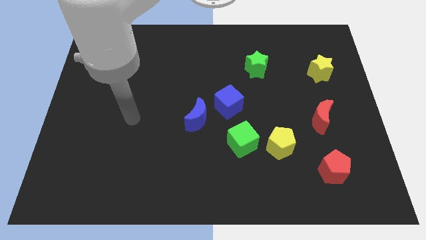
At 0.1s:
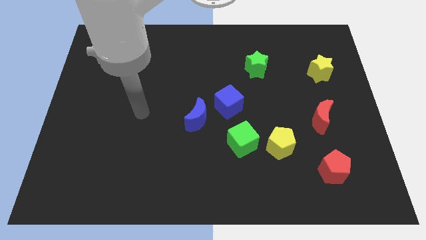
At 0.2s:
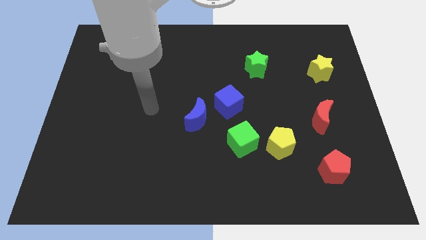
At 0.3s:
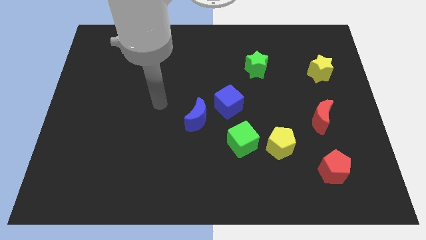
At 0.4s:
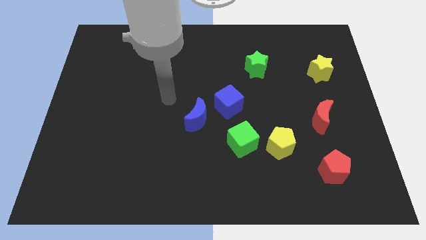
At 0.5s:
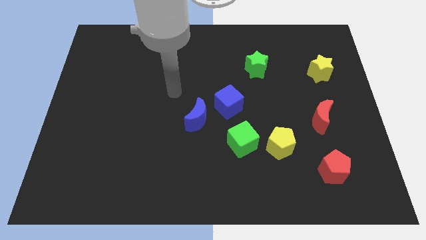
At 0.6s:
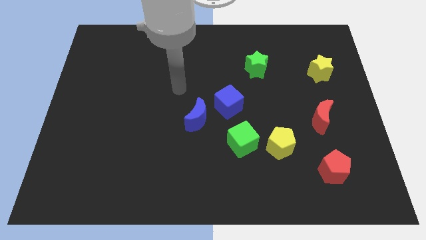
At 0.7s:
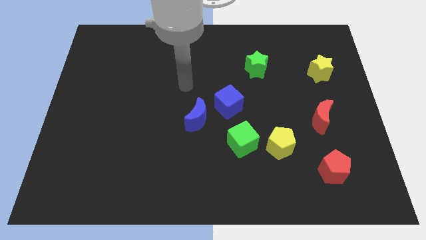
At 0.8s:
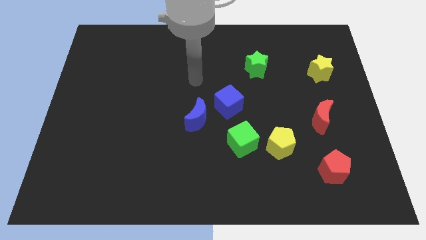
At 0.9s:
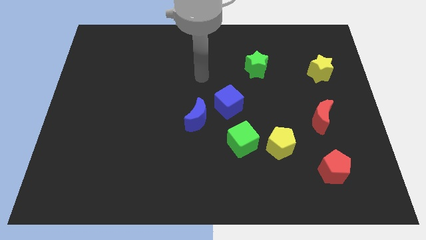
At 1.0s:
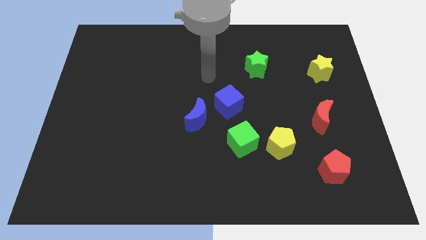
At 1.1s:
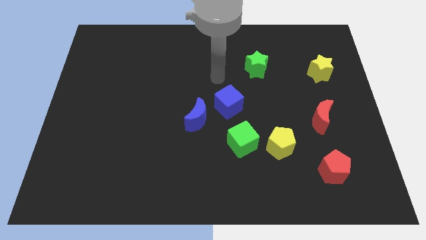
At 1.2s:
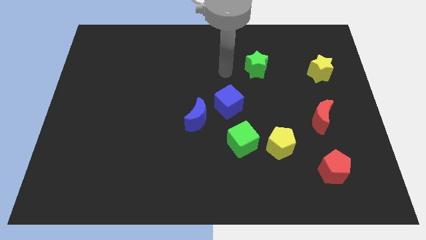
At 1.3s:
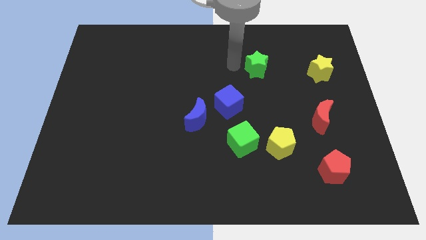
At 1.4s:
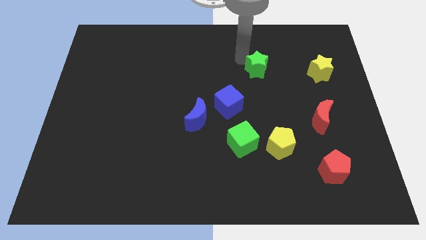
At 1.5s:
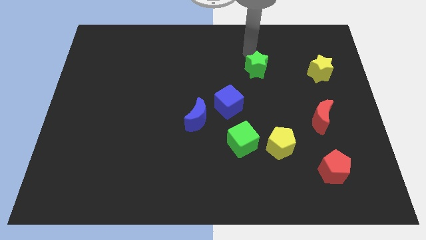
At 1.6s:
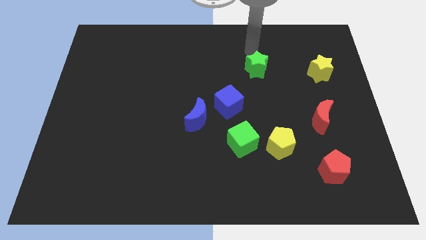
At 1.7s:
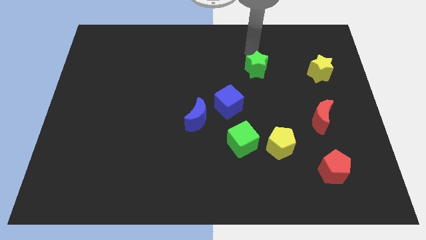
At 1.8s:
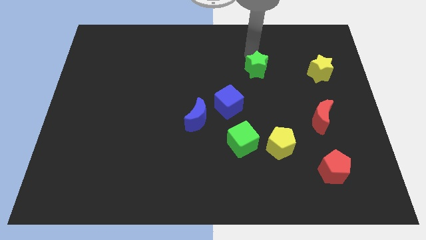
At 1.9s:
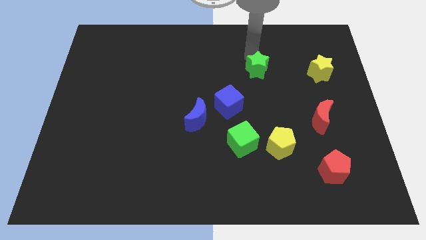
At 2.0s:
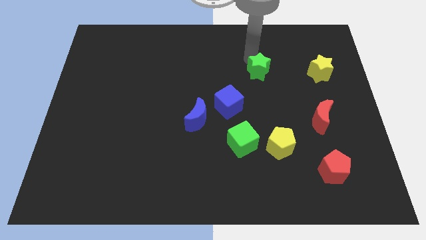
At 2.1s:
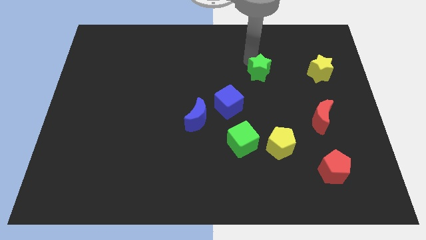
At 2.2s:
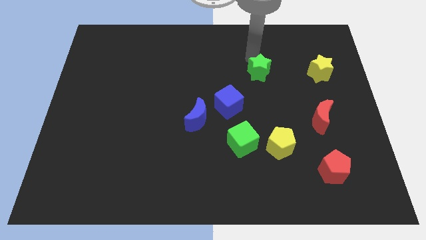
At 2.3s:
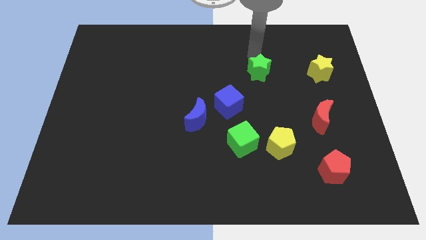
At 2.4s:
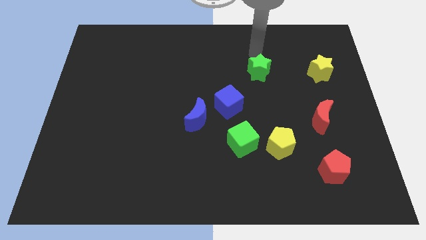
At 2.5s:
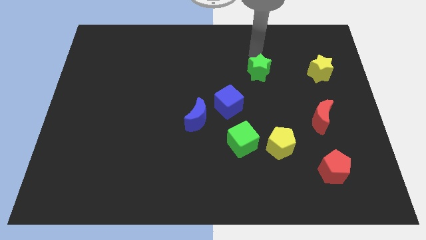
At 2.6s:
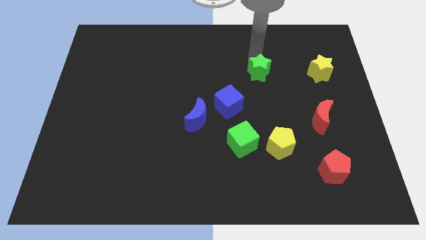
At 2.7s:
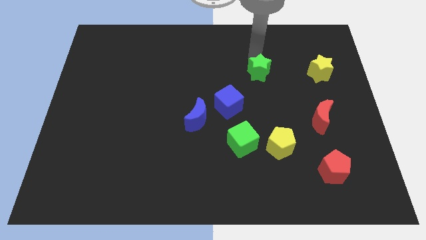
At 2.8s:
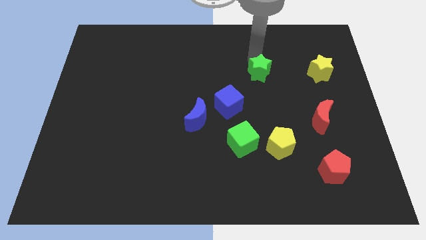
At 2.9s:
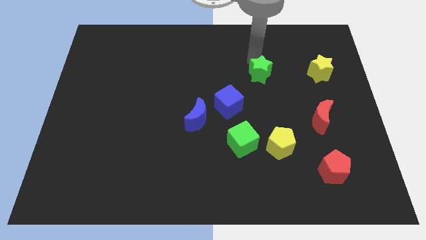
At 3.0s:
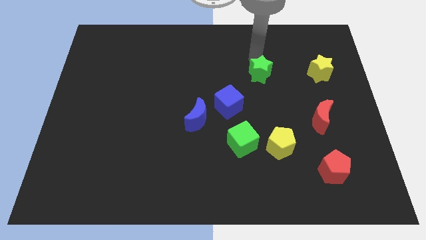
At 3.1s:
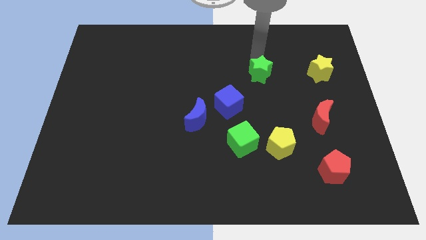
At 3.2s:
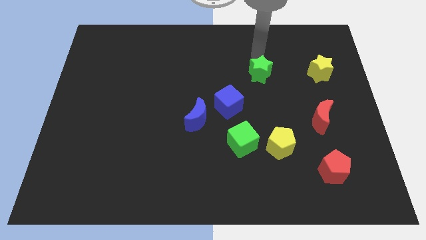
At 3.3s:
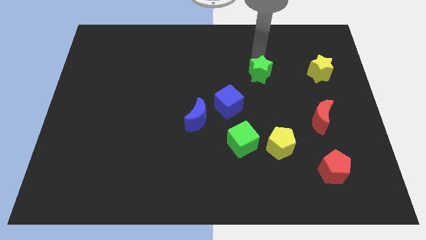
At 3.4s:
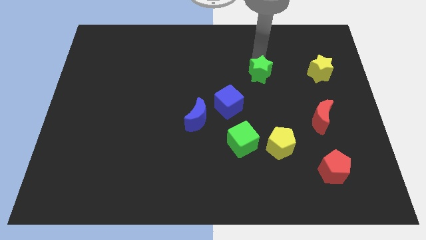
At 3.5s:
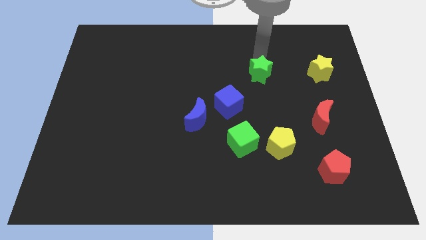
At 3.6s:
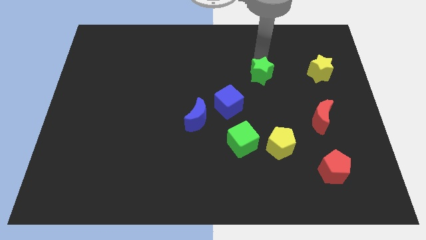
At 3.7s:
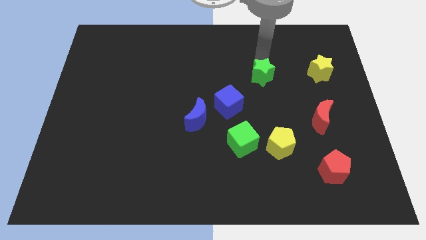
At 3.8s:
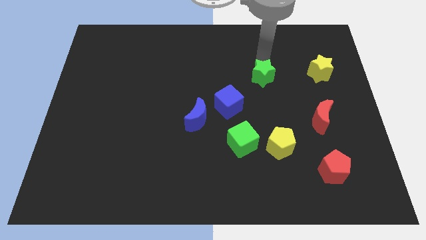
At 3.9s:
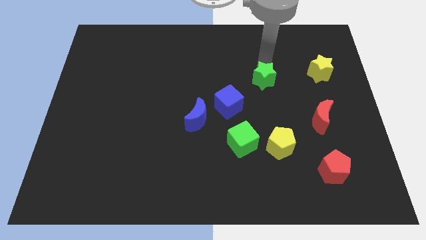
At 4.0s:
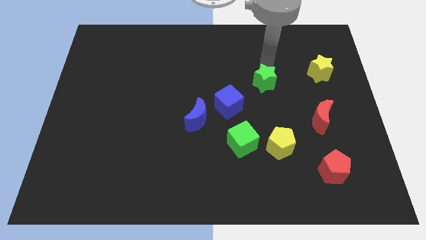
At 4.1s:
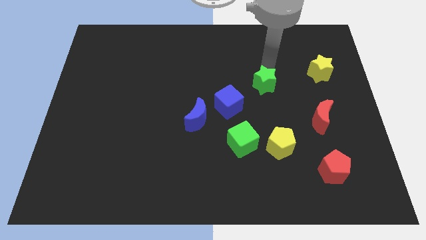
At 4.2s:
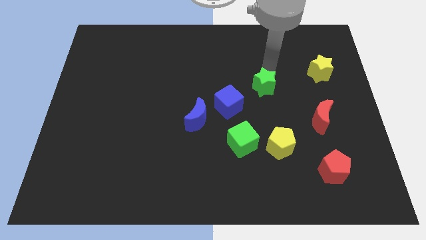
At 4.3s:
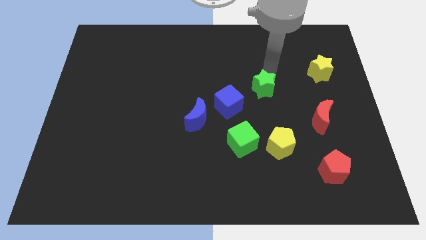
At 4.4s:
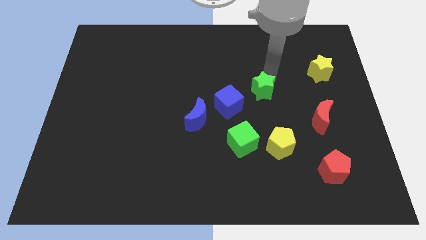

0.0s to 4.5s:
move the green star down a little bit

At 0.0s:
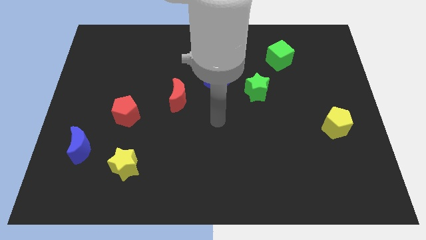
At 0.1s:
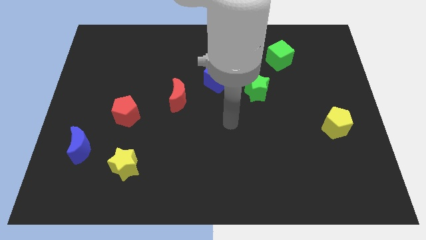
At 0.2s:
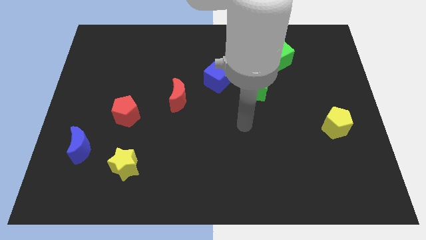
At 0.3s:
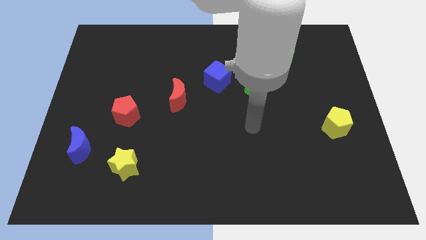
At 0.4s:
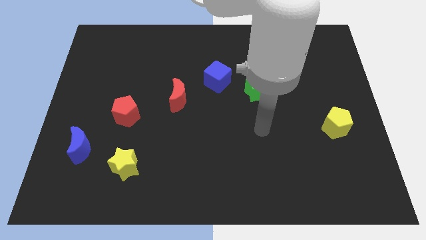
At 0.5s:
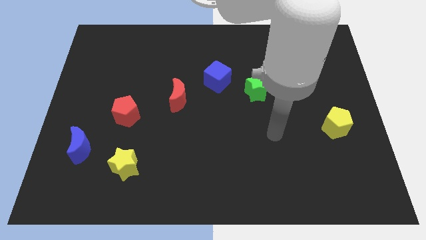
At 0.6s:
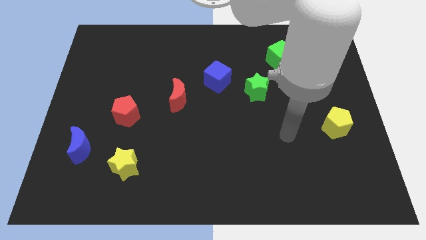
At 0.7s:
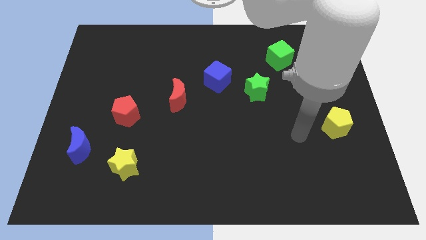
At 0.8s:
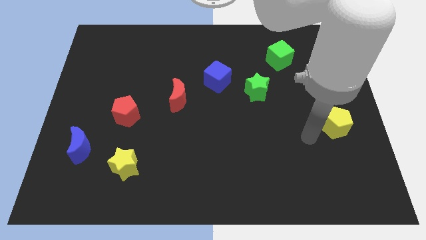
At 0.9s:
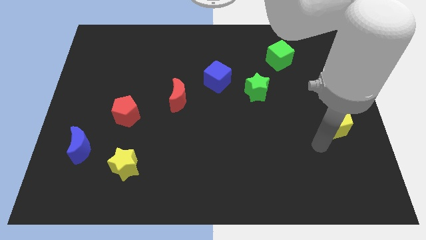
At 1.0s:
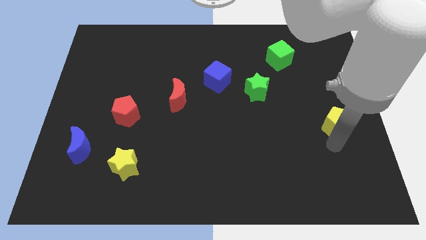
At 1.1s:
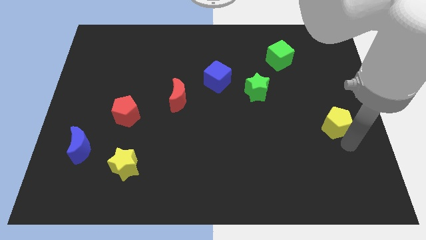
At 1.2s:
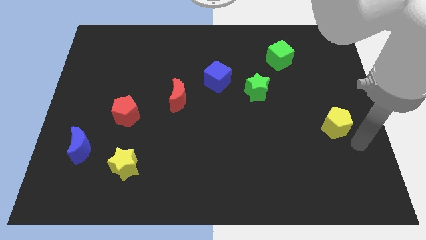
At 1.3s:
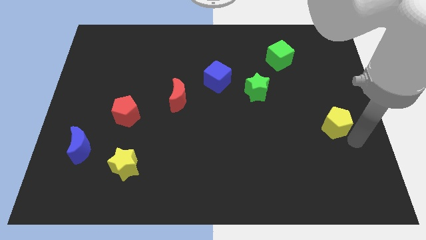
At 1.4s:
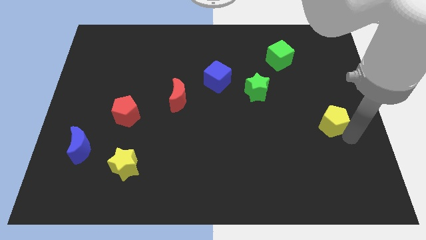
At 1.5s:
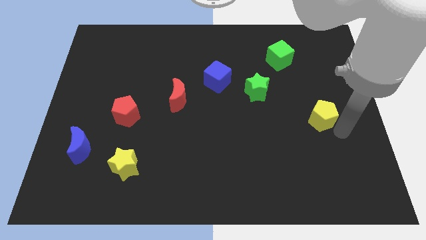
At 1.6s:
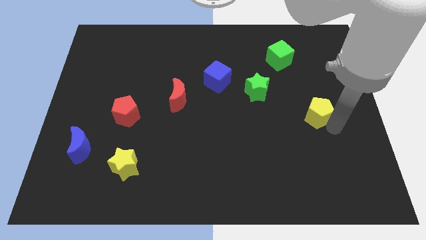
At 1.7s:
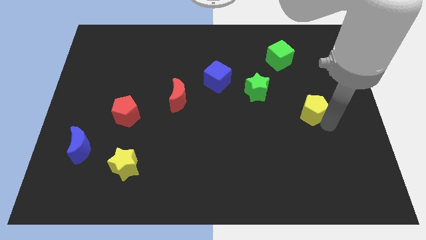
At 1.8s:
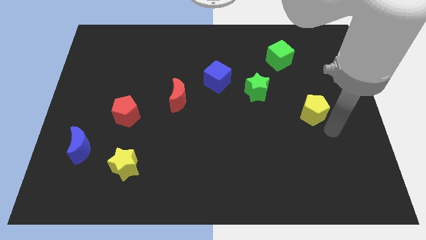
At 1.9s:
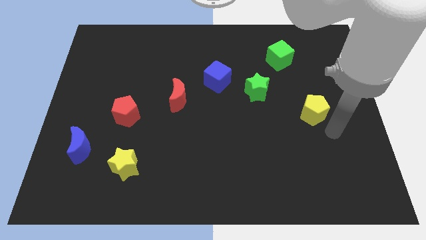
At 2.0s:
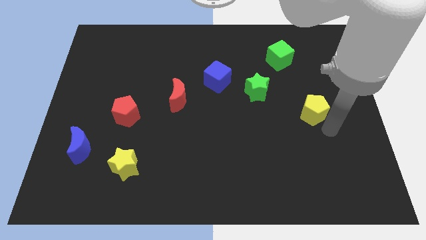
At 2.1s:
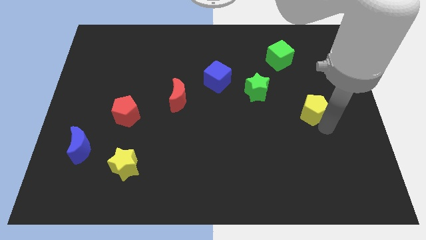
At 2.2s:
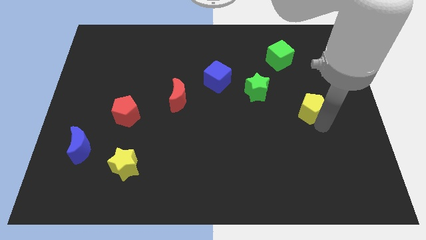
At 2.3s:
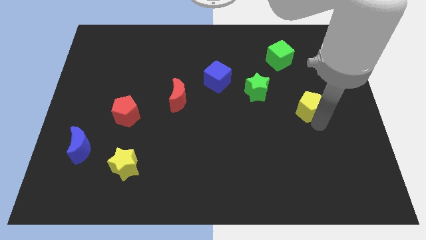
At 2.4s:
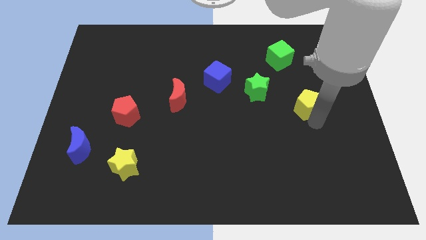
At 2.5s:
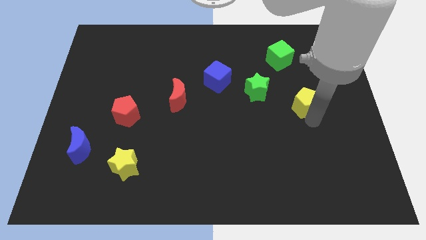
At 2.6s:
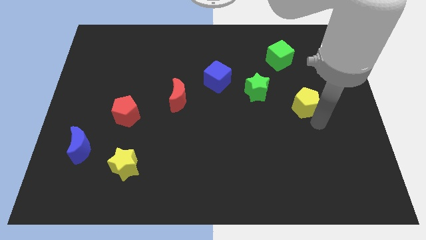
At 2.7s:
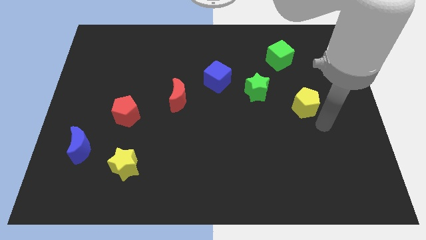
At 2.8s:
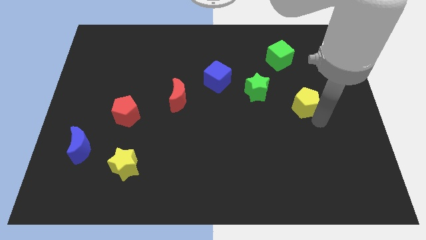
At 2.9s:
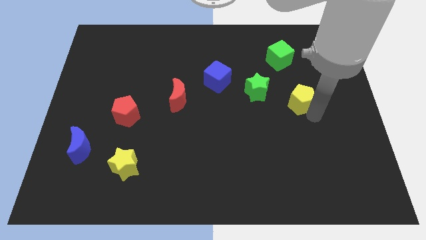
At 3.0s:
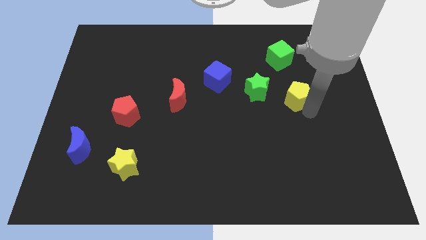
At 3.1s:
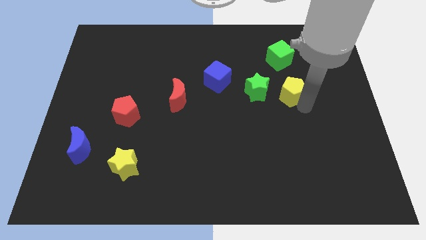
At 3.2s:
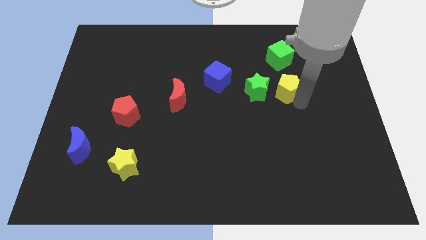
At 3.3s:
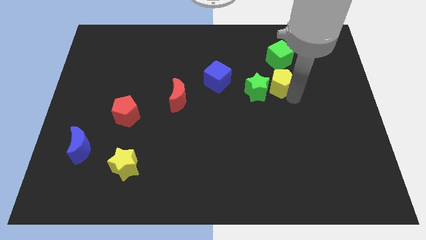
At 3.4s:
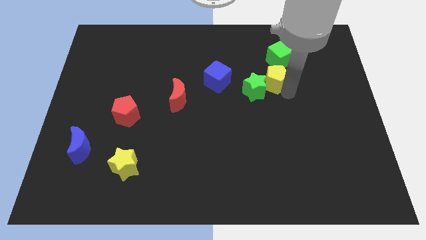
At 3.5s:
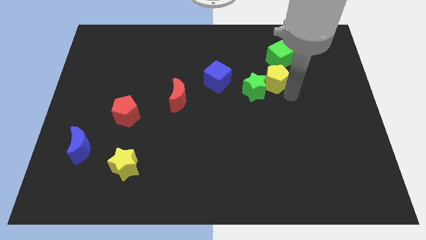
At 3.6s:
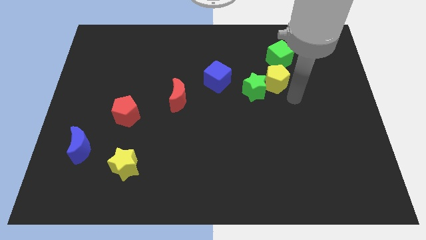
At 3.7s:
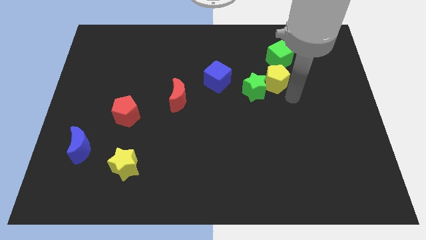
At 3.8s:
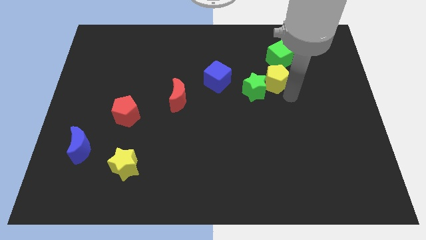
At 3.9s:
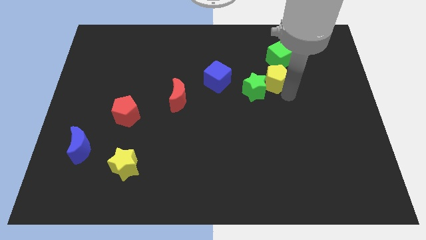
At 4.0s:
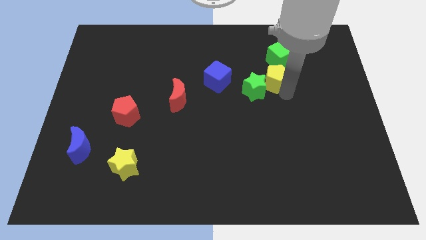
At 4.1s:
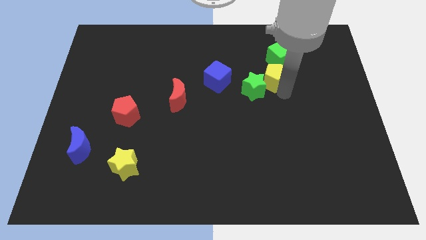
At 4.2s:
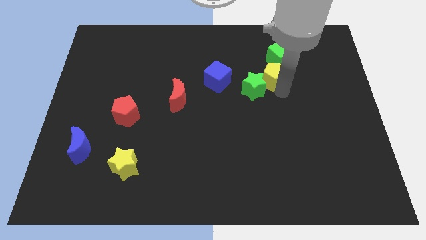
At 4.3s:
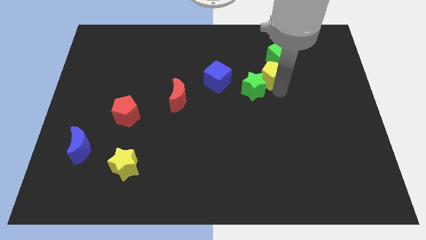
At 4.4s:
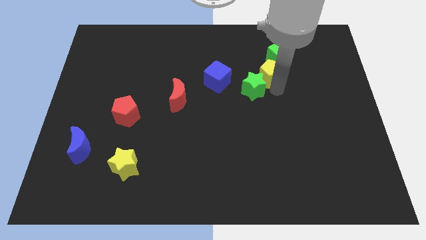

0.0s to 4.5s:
slide the yellow pentagon up and to the left
